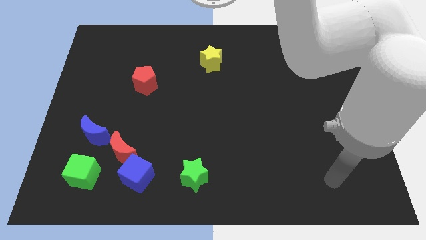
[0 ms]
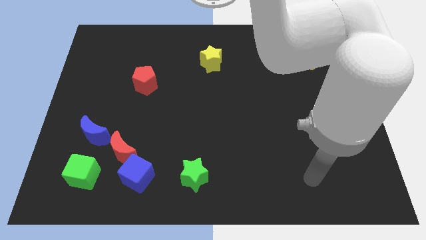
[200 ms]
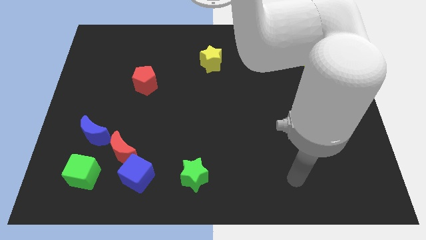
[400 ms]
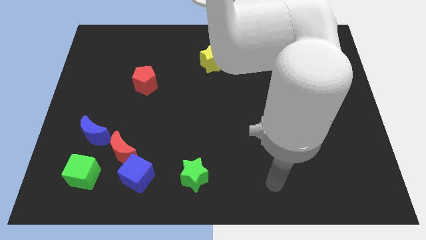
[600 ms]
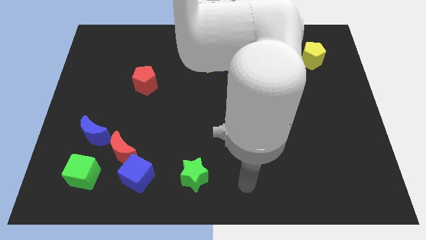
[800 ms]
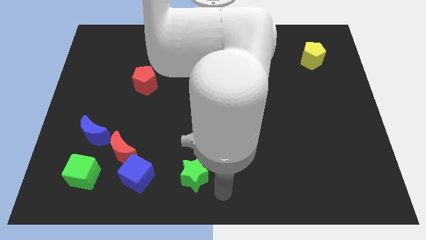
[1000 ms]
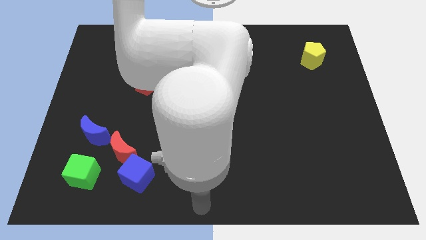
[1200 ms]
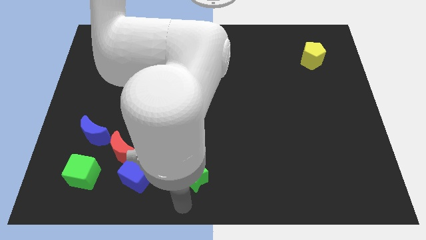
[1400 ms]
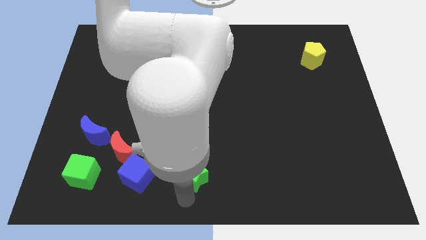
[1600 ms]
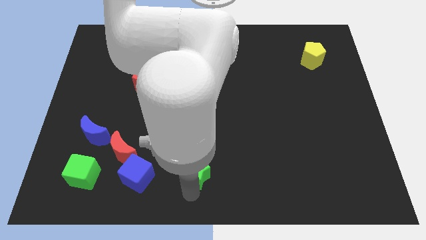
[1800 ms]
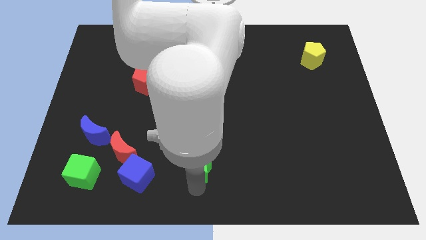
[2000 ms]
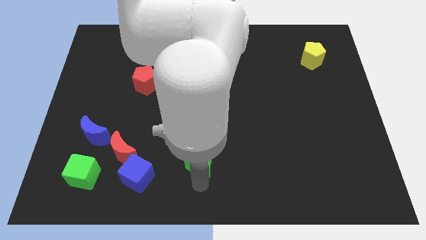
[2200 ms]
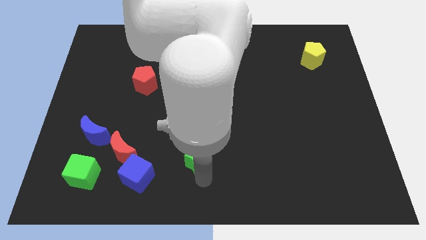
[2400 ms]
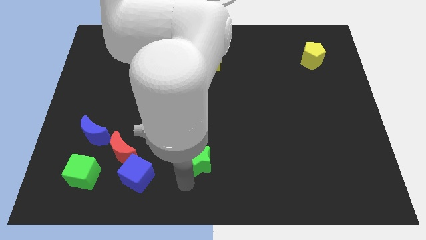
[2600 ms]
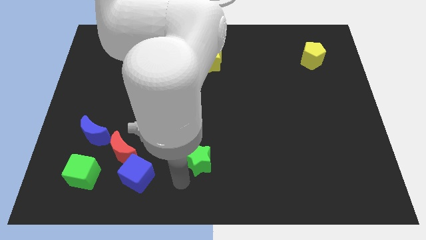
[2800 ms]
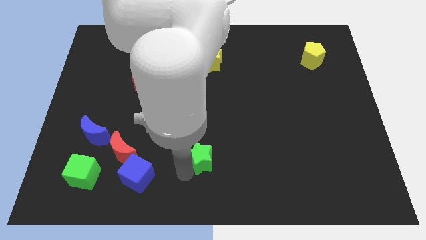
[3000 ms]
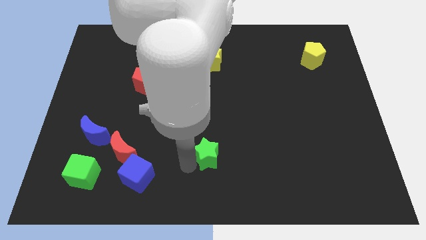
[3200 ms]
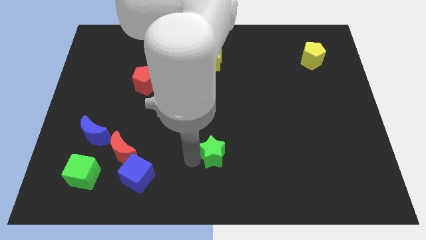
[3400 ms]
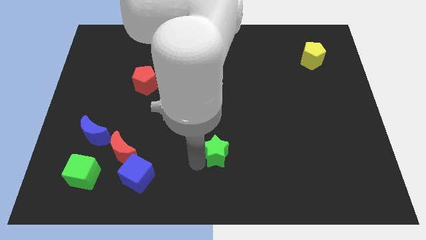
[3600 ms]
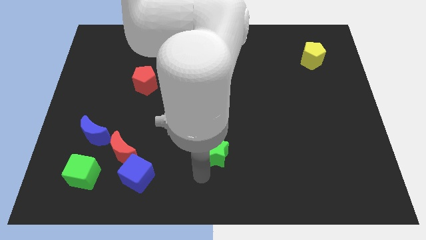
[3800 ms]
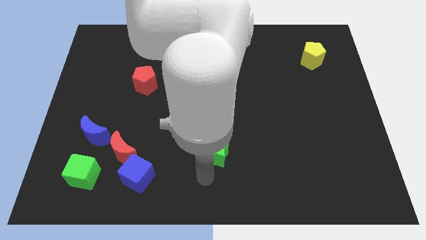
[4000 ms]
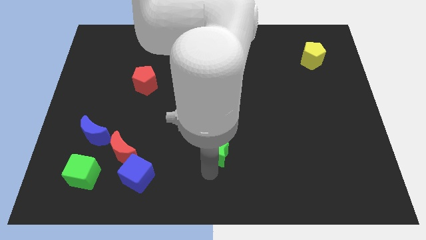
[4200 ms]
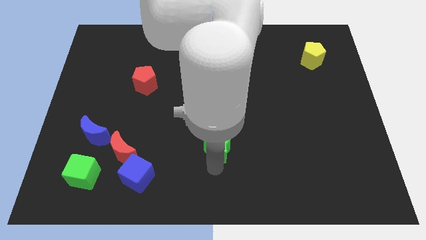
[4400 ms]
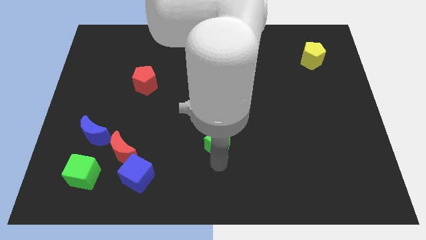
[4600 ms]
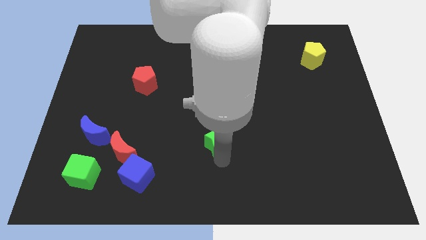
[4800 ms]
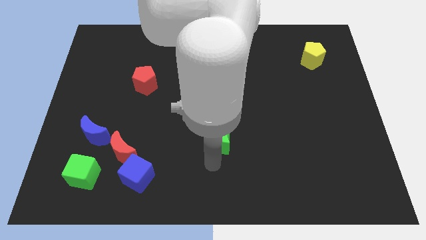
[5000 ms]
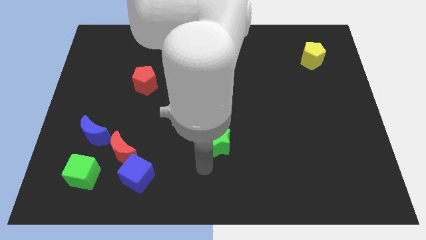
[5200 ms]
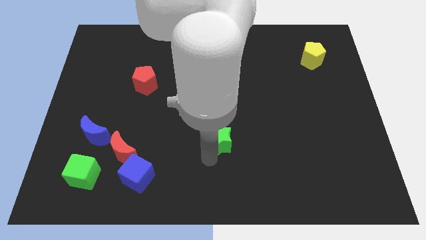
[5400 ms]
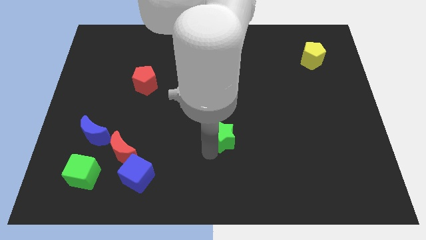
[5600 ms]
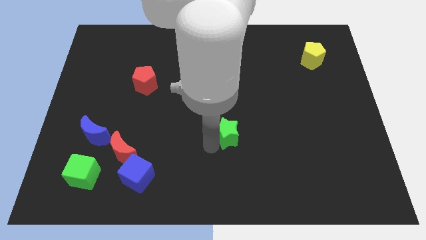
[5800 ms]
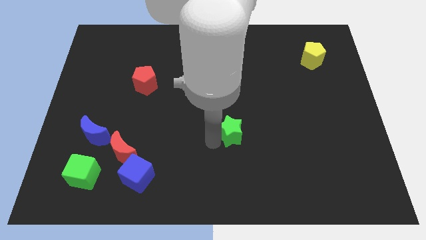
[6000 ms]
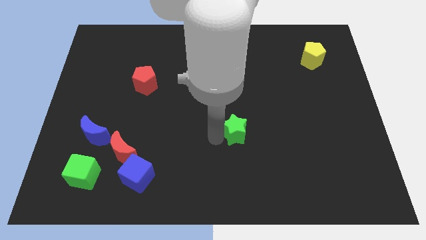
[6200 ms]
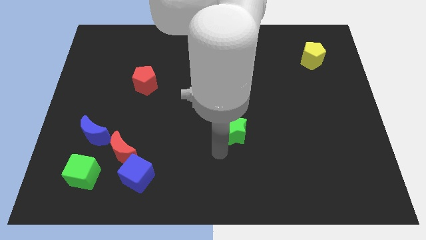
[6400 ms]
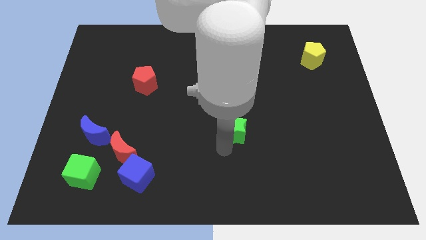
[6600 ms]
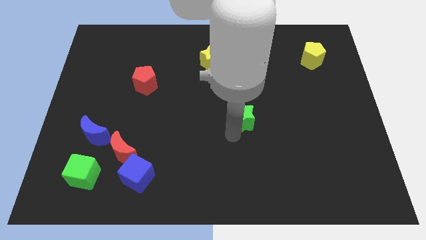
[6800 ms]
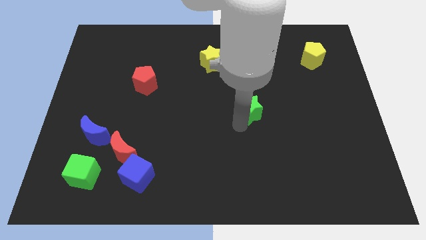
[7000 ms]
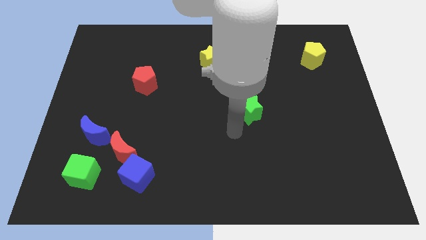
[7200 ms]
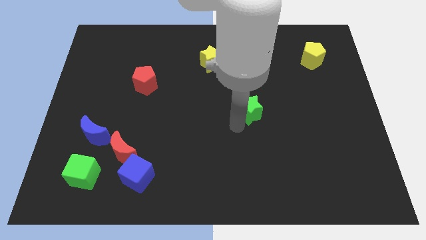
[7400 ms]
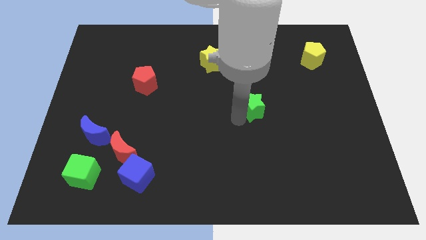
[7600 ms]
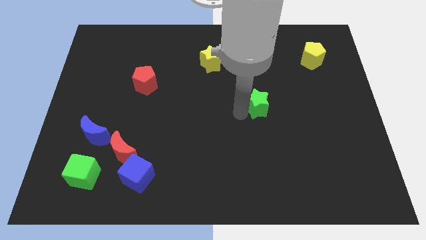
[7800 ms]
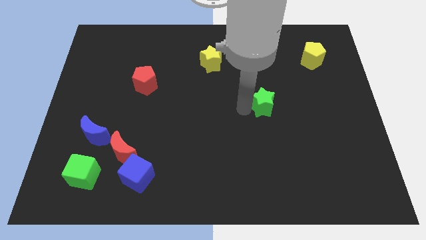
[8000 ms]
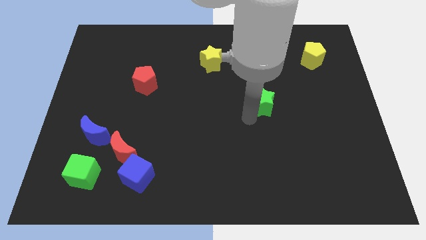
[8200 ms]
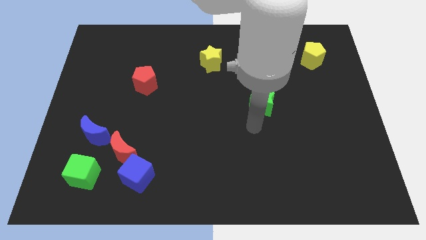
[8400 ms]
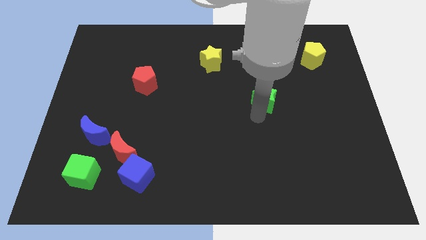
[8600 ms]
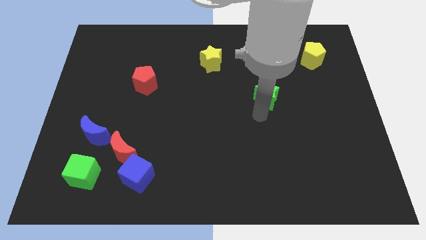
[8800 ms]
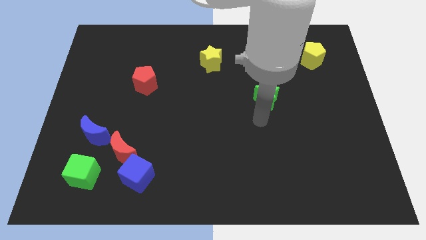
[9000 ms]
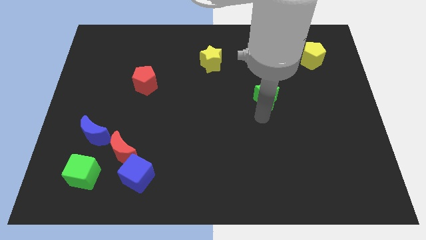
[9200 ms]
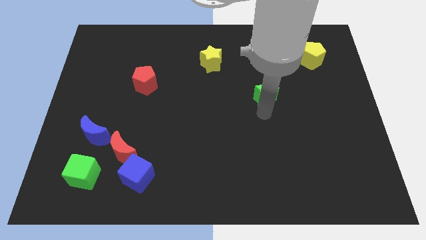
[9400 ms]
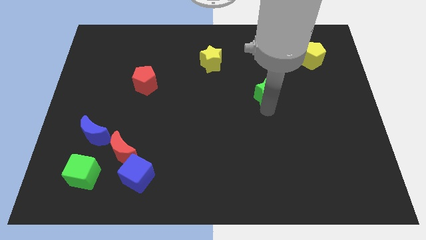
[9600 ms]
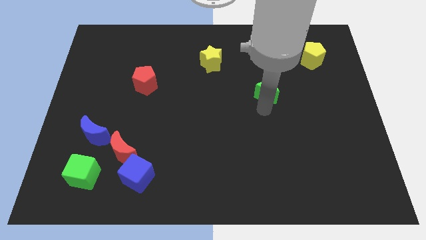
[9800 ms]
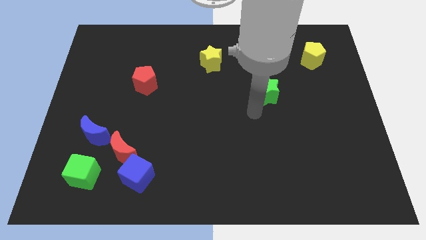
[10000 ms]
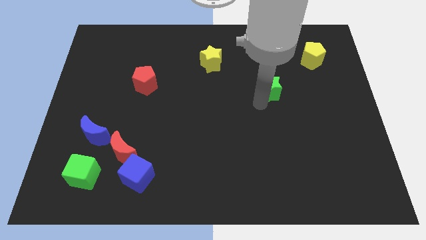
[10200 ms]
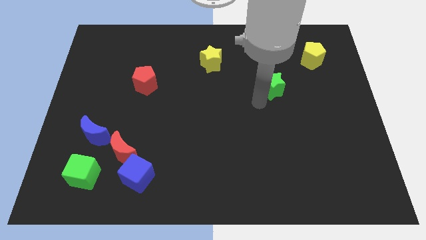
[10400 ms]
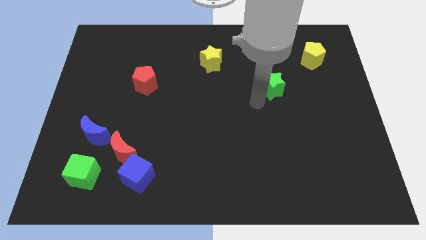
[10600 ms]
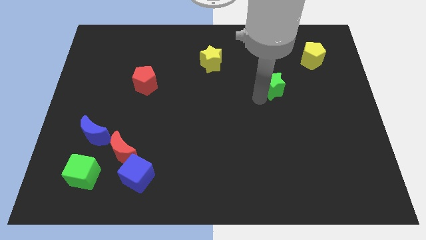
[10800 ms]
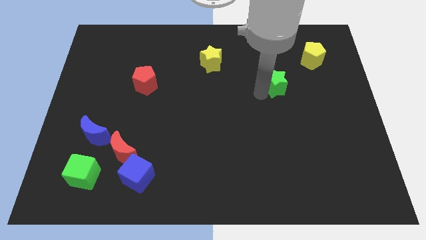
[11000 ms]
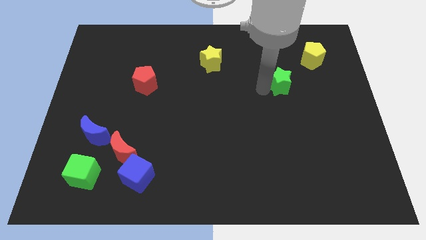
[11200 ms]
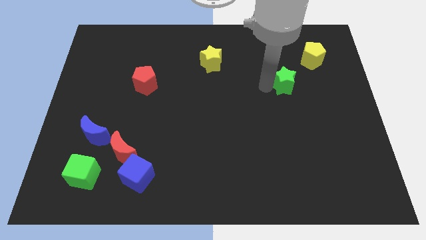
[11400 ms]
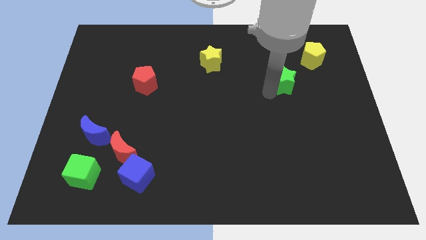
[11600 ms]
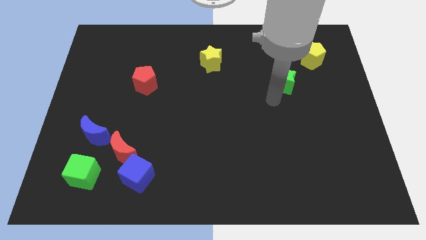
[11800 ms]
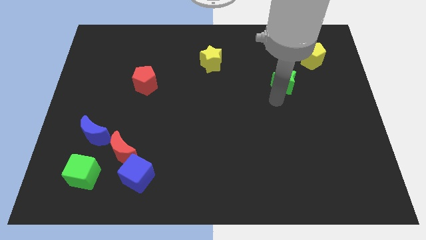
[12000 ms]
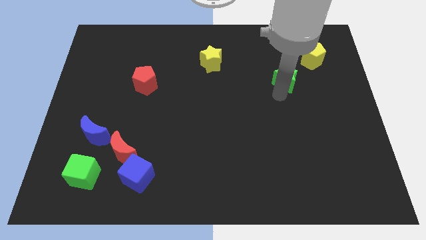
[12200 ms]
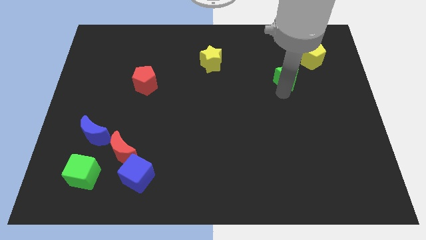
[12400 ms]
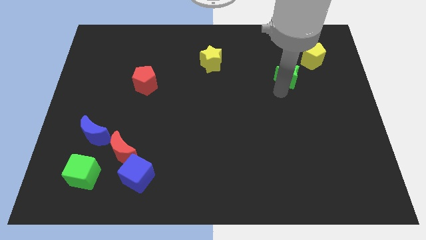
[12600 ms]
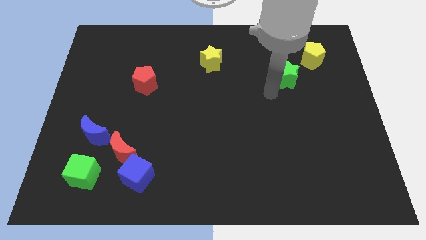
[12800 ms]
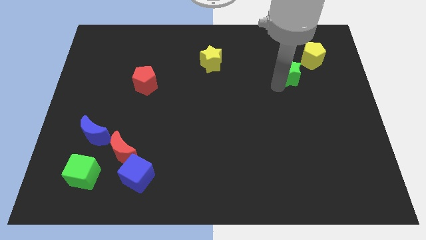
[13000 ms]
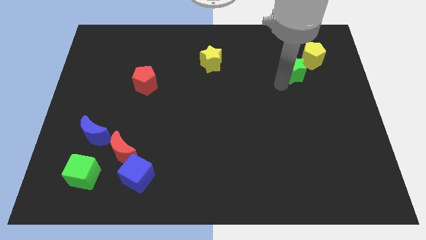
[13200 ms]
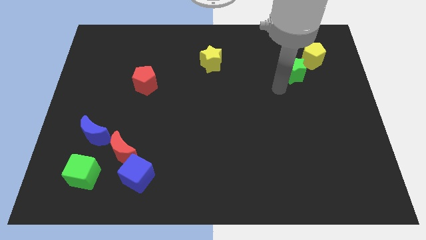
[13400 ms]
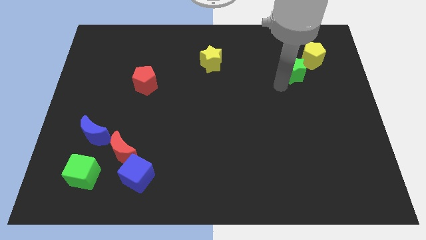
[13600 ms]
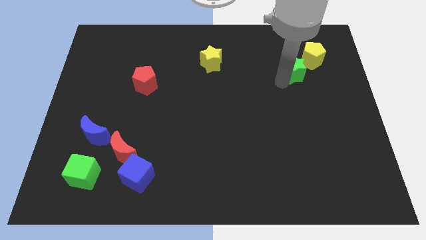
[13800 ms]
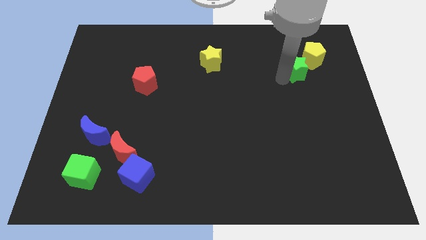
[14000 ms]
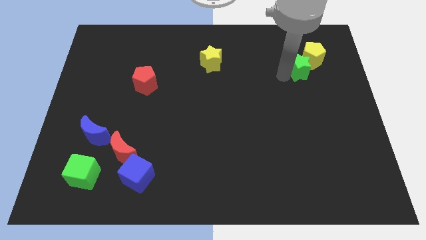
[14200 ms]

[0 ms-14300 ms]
put the green star to the yellow pentagon

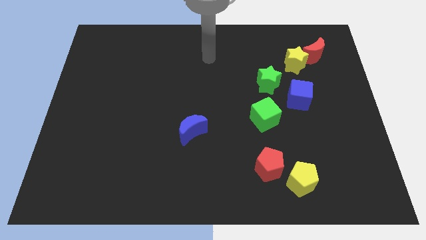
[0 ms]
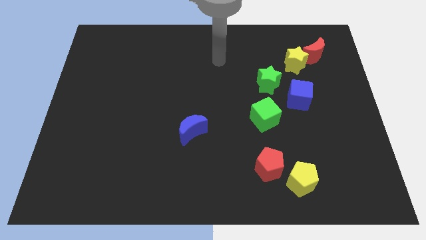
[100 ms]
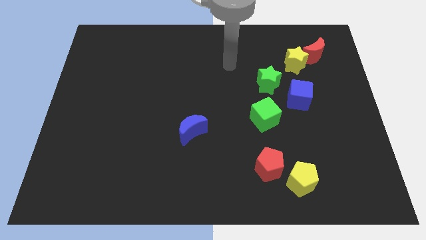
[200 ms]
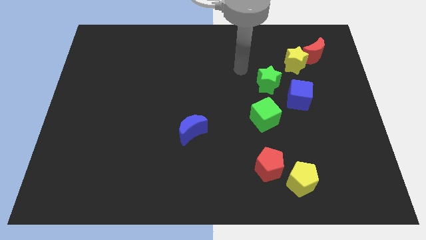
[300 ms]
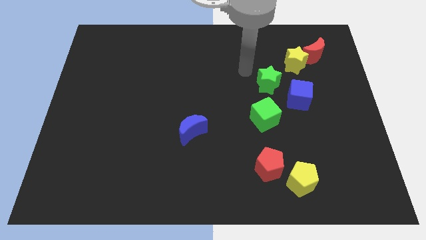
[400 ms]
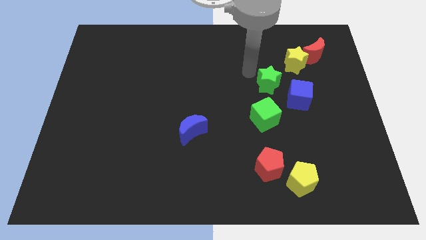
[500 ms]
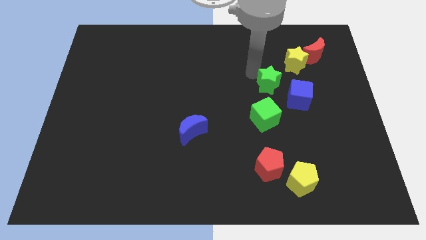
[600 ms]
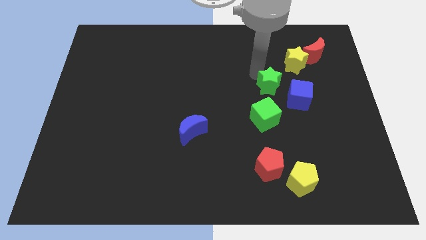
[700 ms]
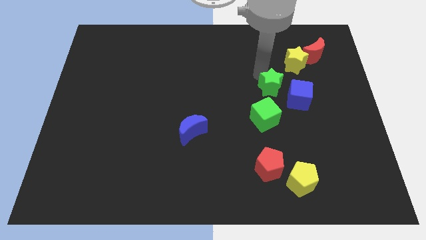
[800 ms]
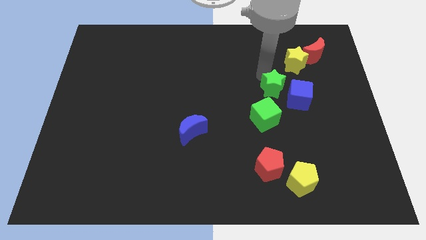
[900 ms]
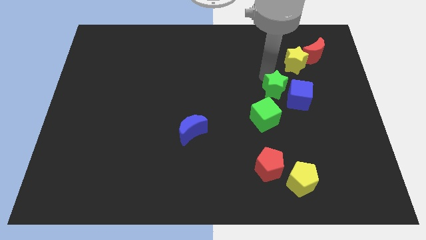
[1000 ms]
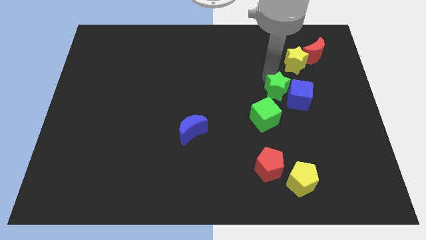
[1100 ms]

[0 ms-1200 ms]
slide the green star close to the blue cube

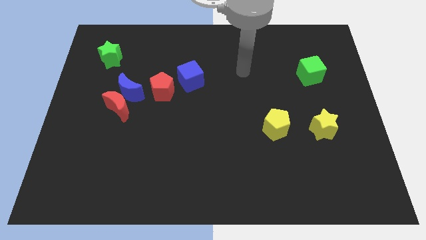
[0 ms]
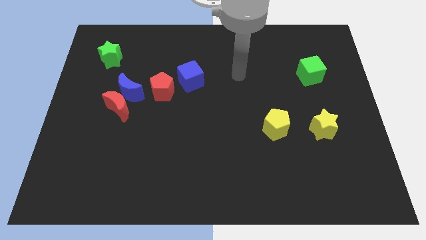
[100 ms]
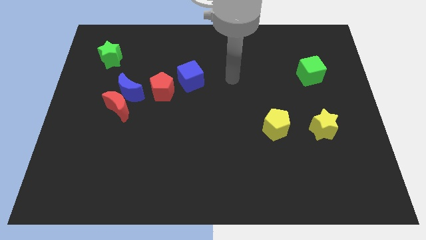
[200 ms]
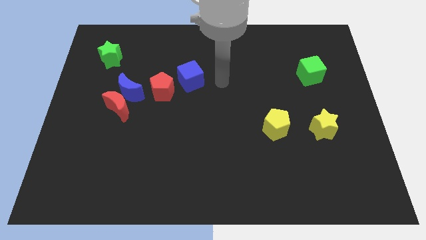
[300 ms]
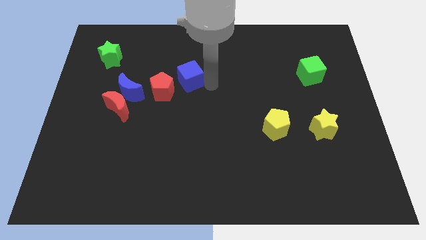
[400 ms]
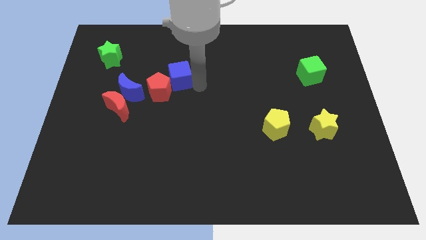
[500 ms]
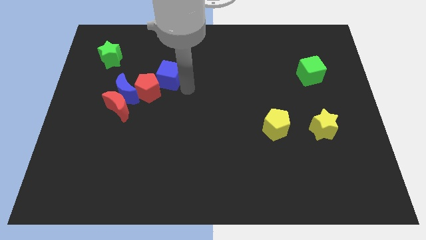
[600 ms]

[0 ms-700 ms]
slide the red pentagon to the blue moon
